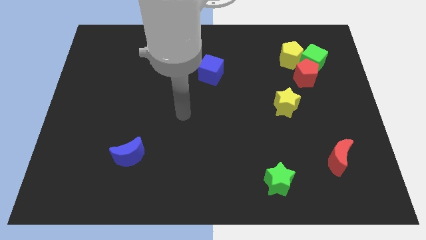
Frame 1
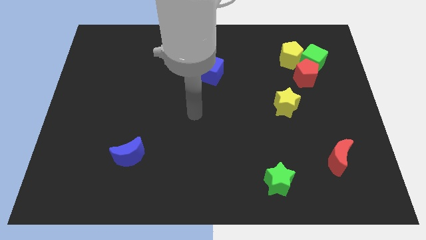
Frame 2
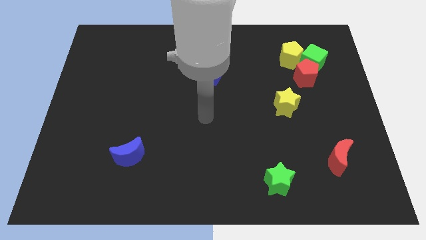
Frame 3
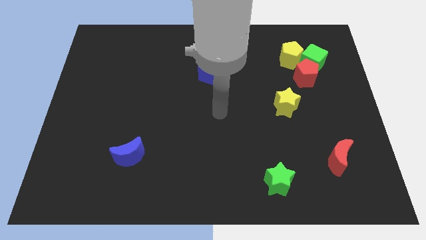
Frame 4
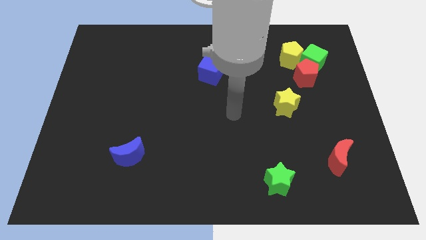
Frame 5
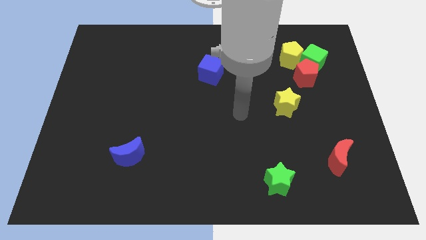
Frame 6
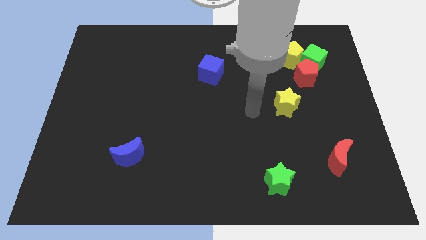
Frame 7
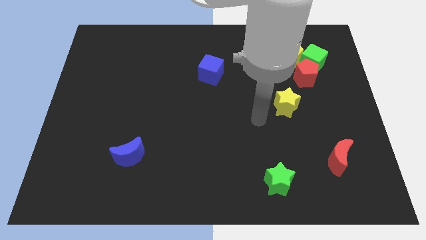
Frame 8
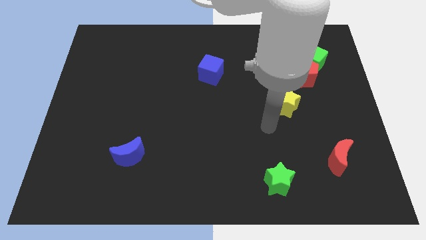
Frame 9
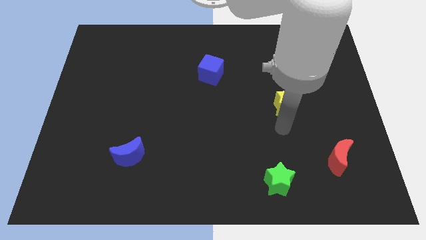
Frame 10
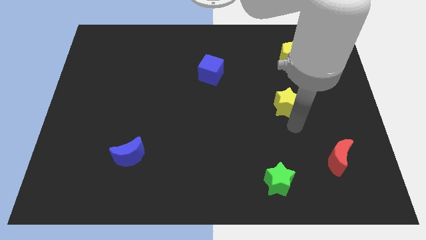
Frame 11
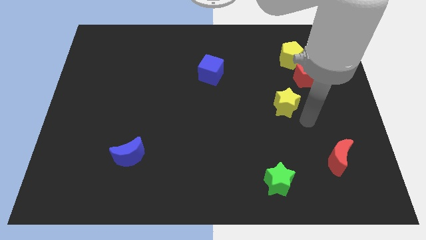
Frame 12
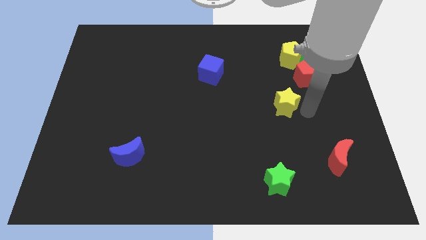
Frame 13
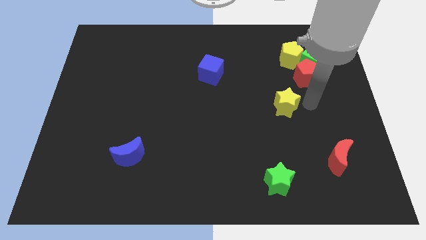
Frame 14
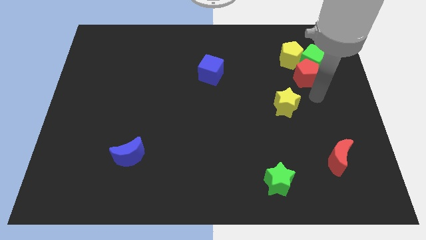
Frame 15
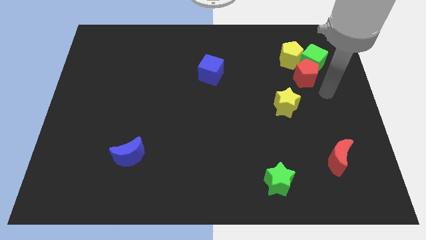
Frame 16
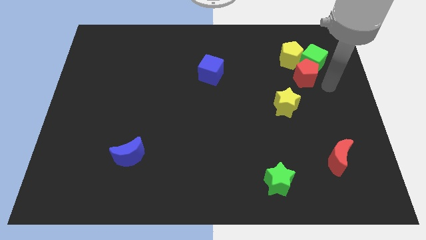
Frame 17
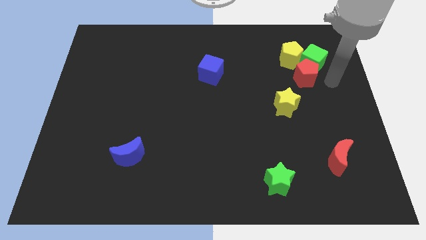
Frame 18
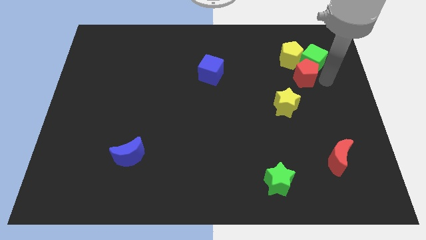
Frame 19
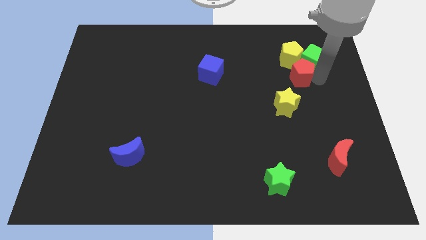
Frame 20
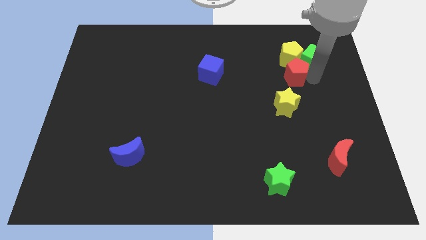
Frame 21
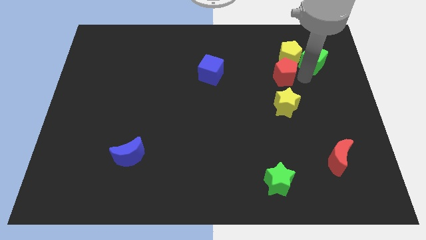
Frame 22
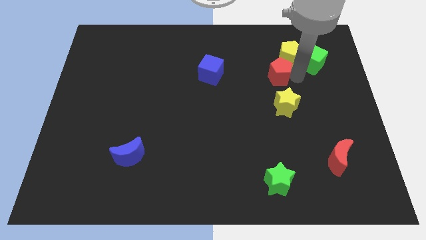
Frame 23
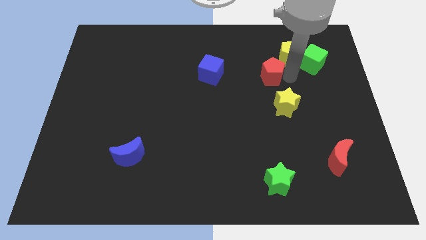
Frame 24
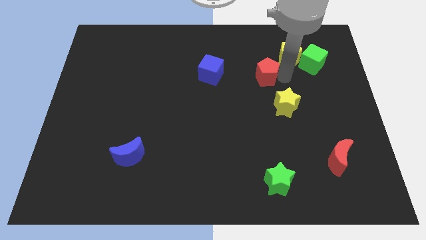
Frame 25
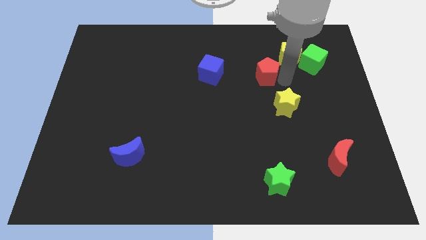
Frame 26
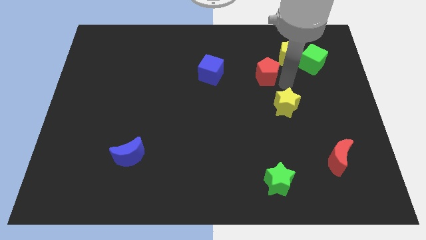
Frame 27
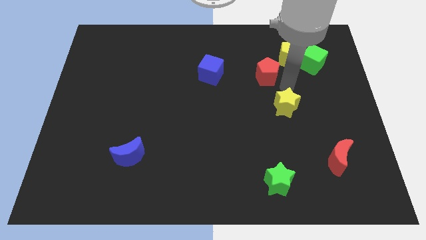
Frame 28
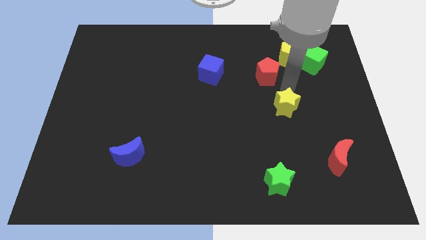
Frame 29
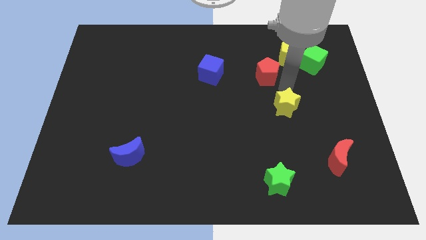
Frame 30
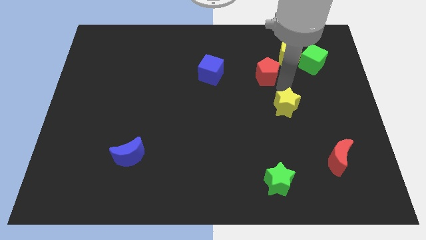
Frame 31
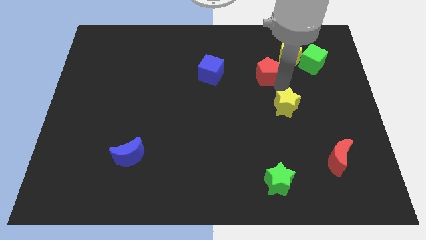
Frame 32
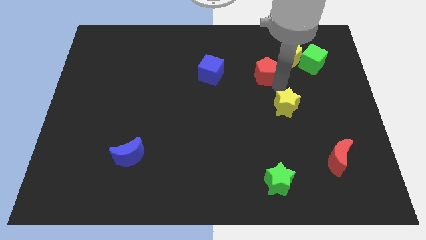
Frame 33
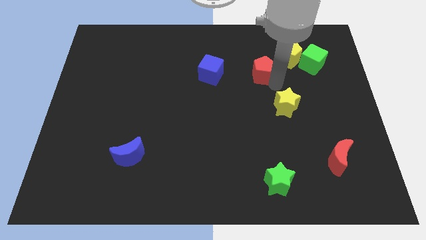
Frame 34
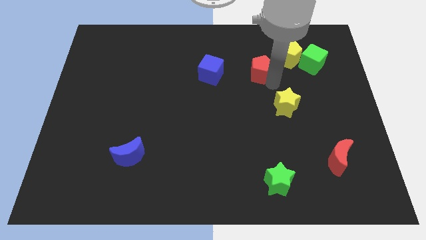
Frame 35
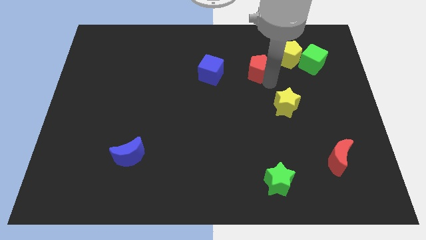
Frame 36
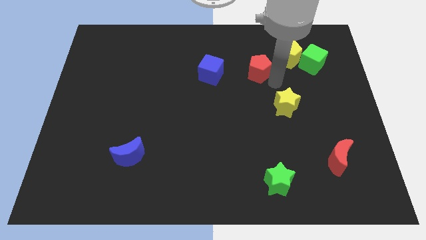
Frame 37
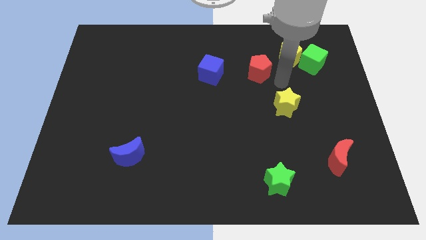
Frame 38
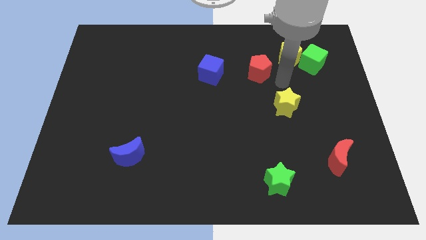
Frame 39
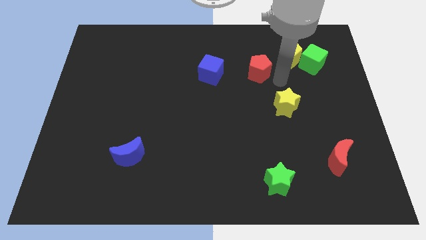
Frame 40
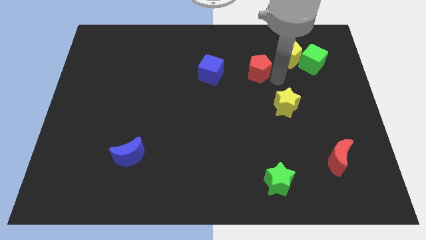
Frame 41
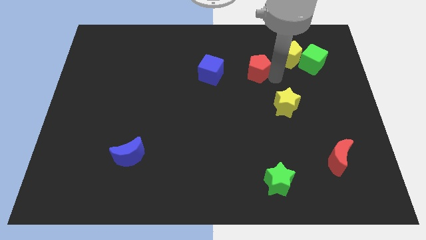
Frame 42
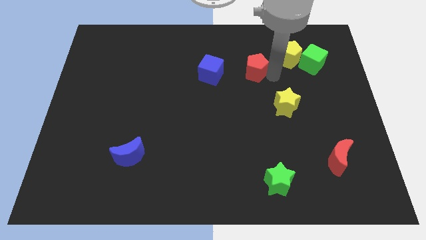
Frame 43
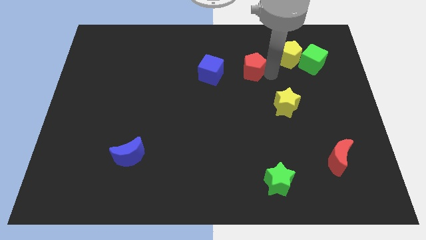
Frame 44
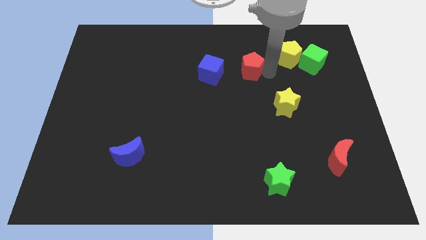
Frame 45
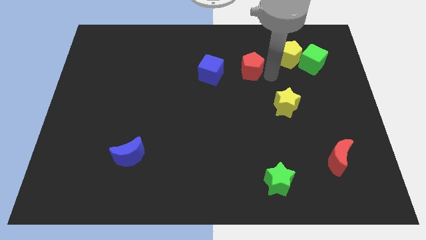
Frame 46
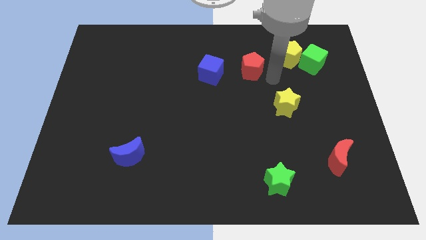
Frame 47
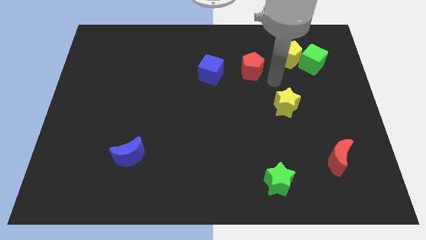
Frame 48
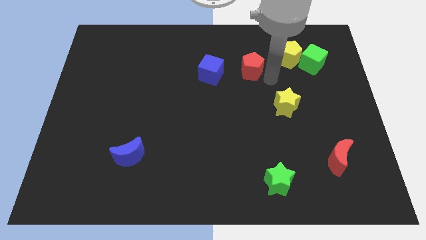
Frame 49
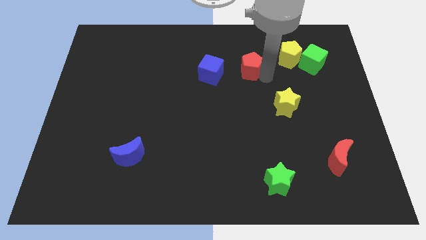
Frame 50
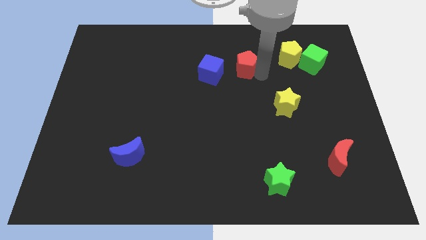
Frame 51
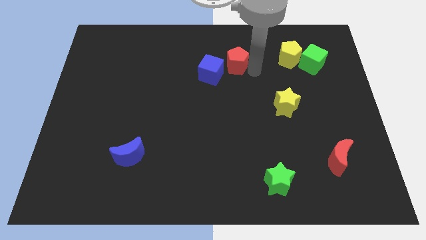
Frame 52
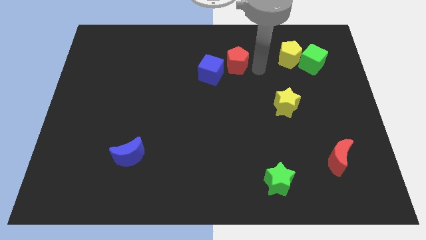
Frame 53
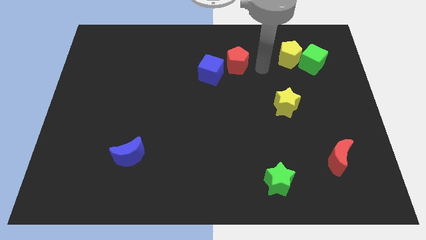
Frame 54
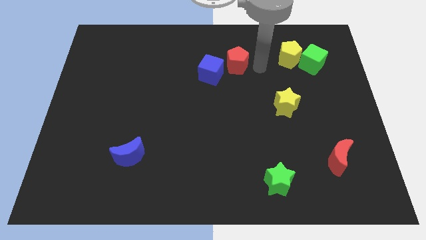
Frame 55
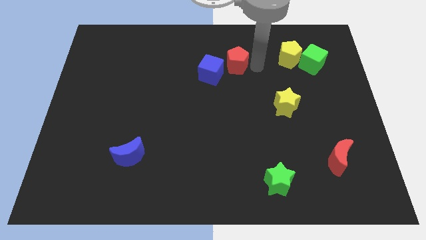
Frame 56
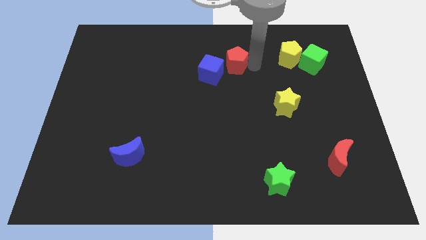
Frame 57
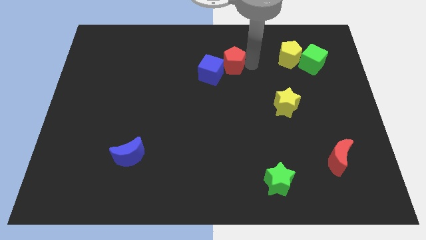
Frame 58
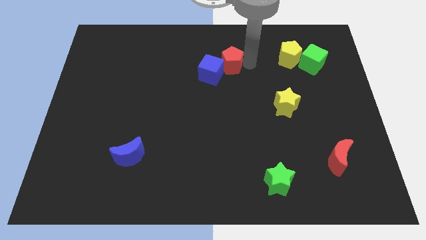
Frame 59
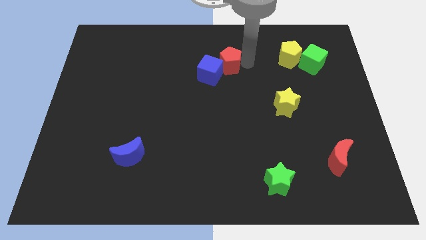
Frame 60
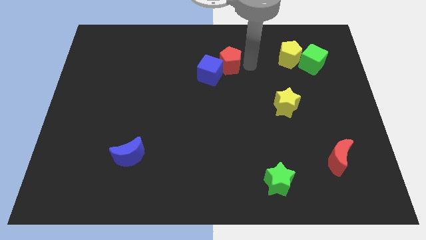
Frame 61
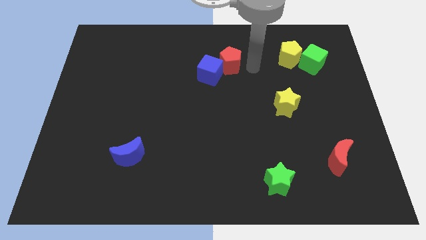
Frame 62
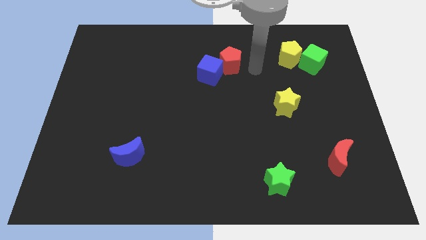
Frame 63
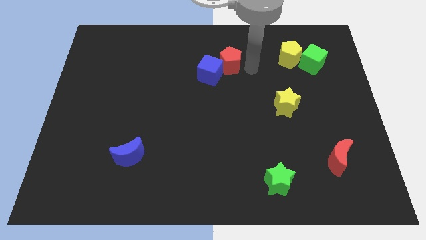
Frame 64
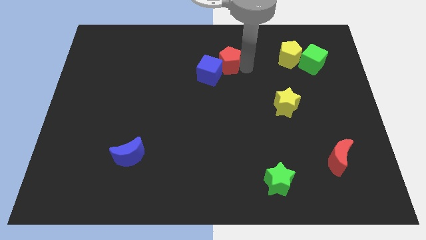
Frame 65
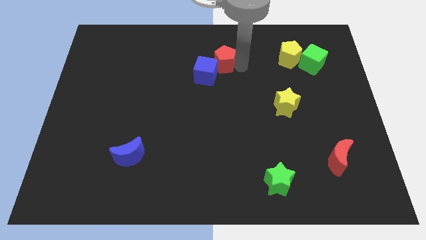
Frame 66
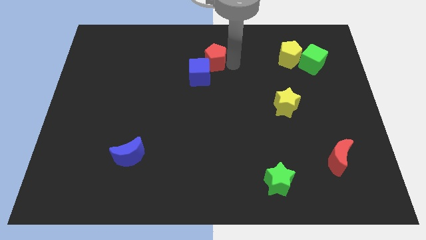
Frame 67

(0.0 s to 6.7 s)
push the red pentagon to the left

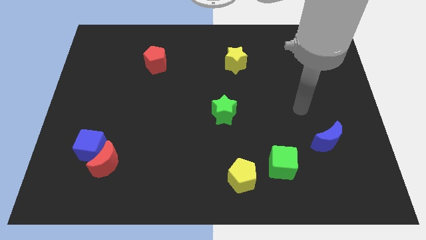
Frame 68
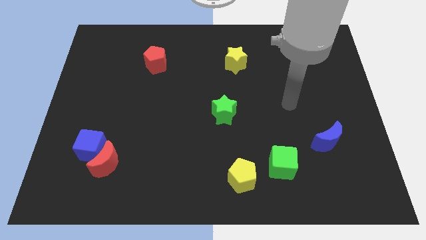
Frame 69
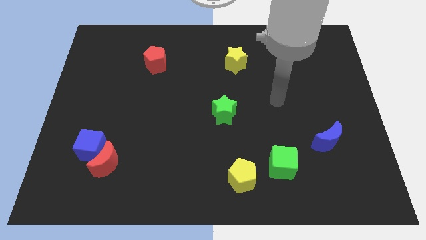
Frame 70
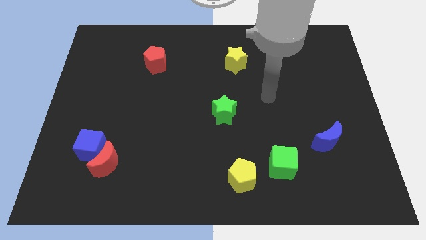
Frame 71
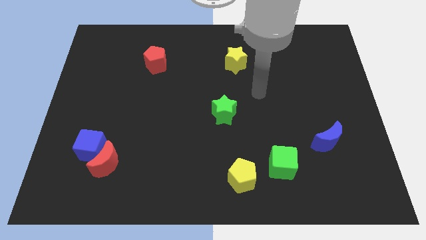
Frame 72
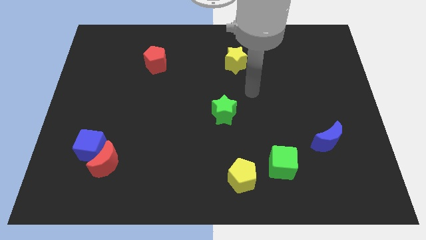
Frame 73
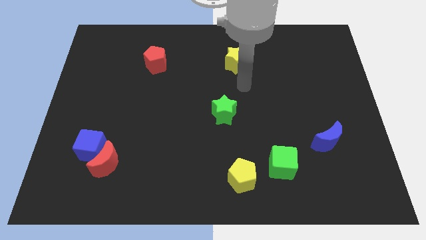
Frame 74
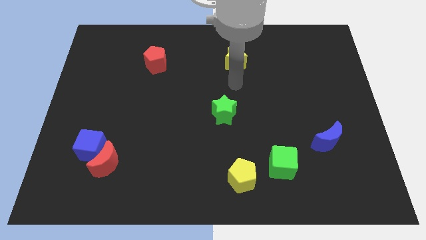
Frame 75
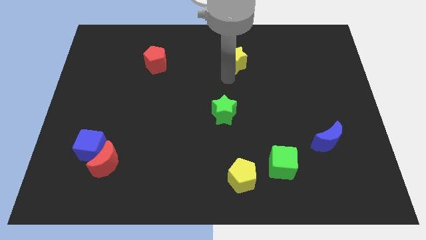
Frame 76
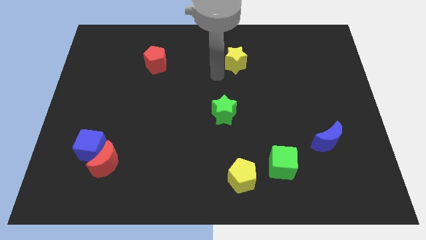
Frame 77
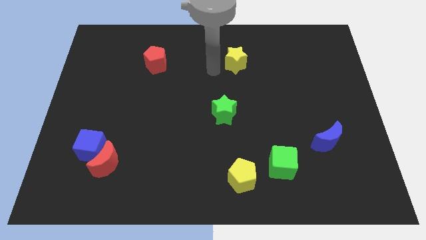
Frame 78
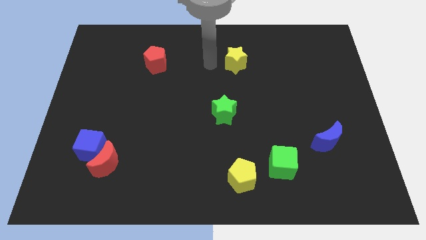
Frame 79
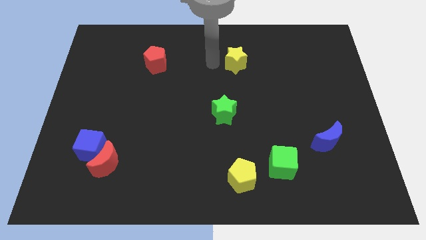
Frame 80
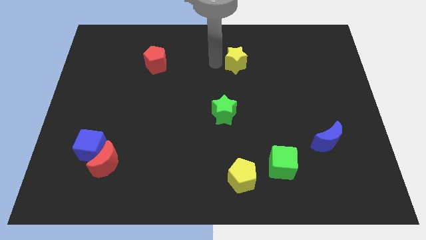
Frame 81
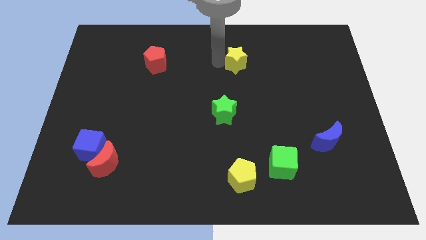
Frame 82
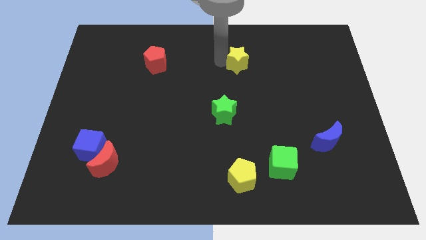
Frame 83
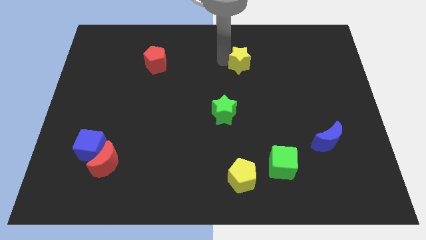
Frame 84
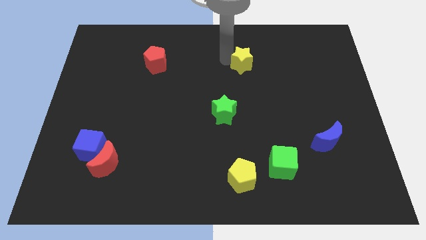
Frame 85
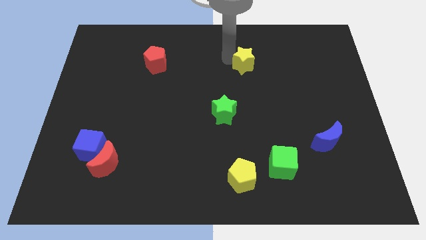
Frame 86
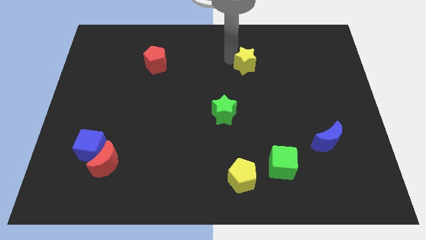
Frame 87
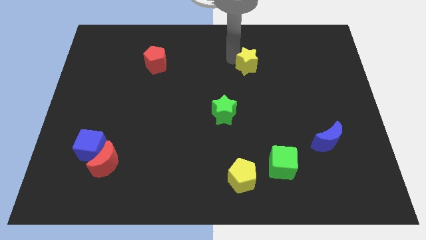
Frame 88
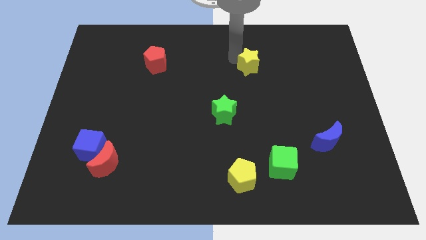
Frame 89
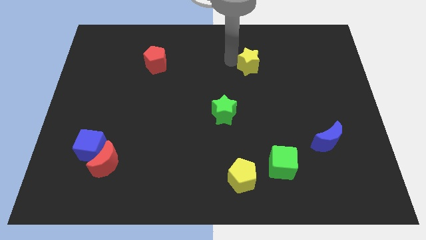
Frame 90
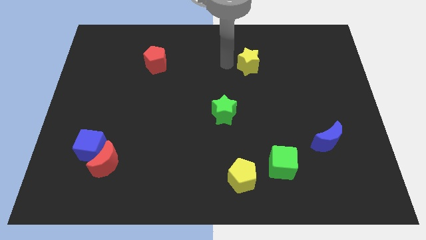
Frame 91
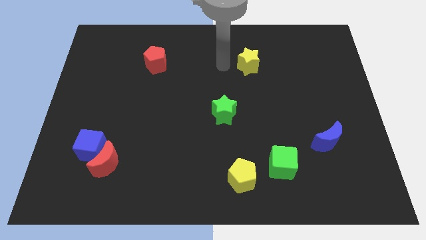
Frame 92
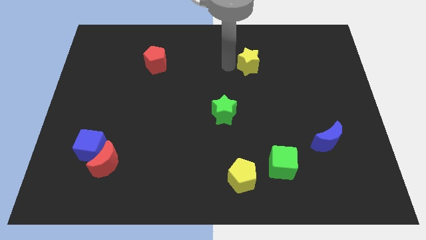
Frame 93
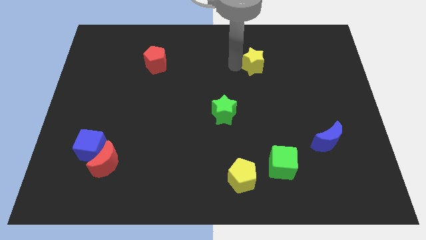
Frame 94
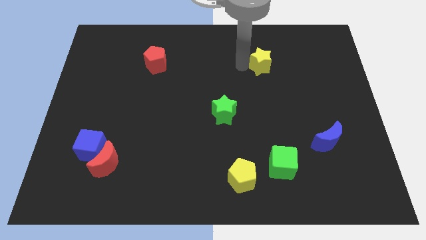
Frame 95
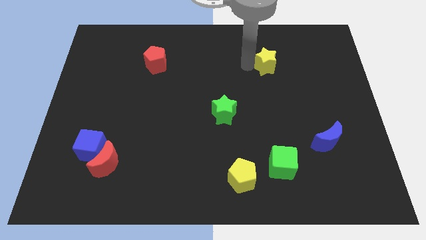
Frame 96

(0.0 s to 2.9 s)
slide the yellow star slightly to the right
